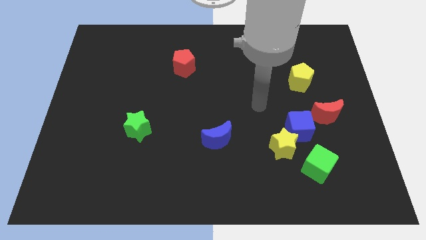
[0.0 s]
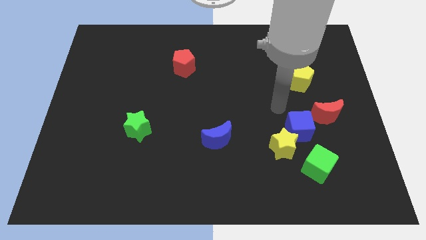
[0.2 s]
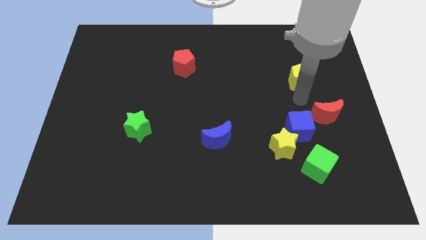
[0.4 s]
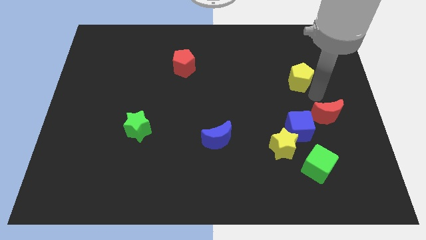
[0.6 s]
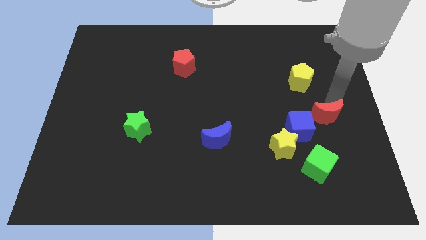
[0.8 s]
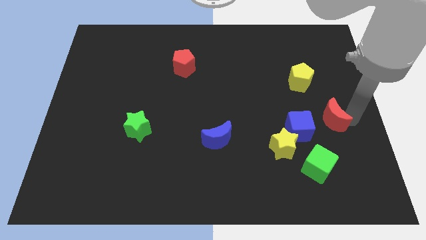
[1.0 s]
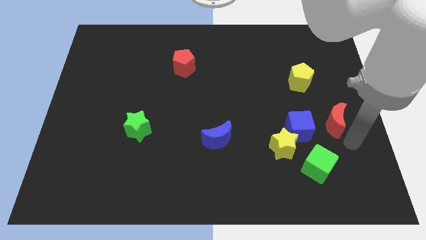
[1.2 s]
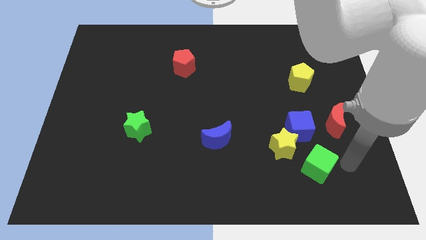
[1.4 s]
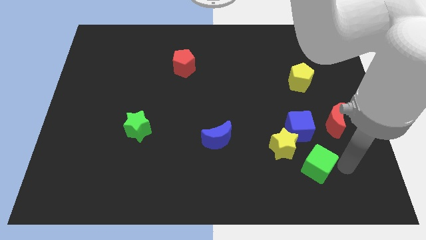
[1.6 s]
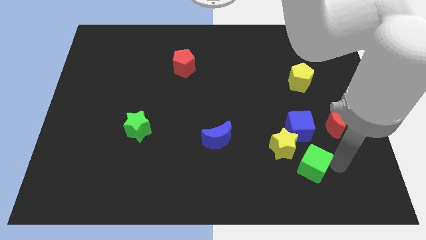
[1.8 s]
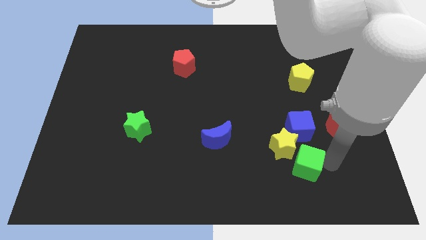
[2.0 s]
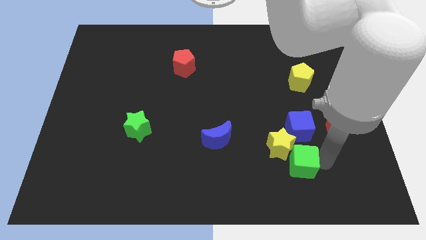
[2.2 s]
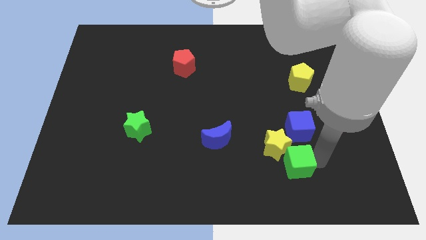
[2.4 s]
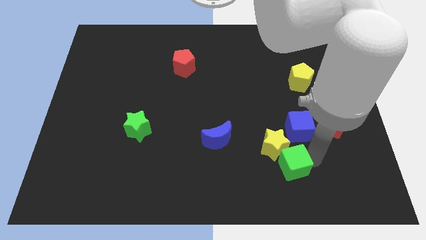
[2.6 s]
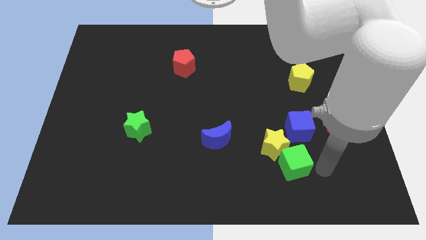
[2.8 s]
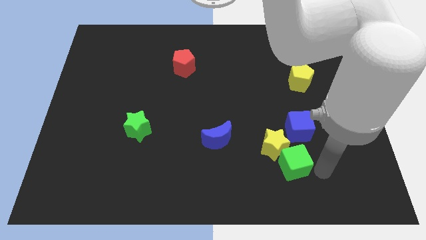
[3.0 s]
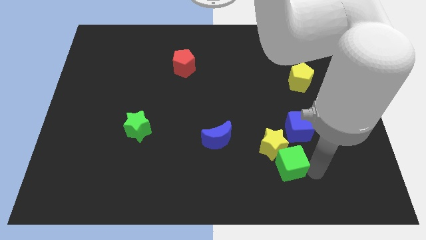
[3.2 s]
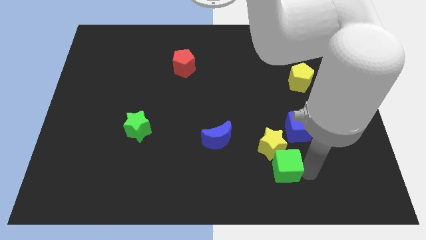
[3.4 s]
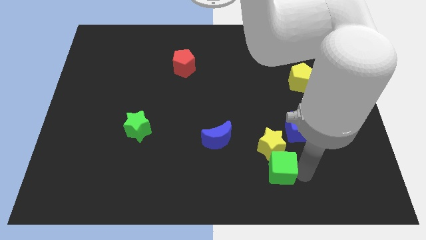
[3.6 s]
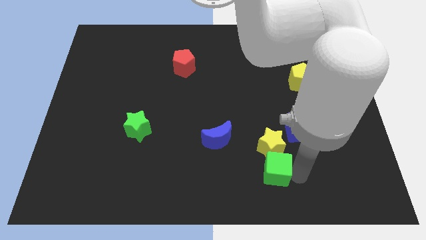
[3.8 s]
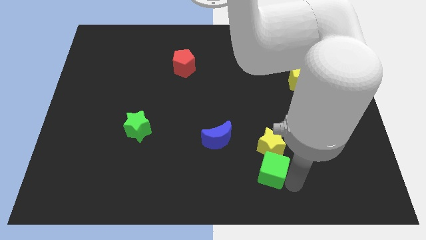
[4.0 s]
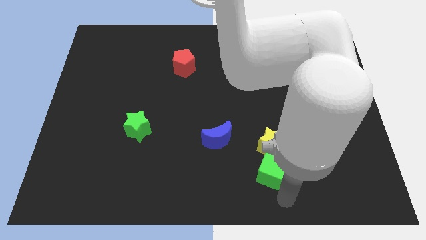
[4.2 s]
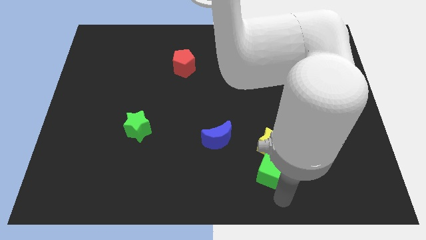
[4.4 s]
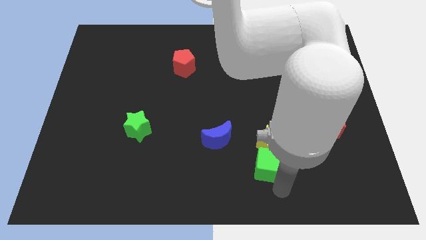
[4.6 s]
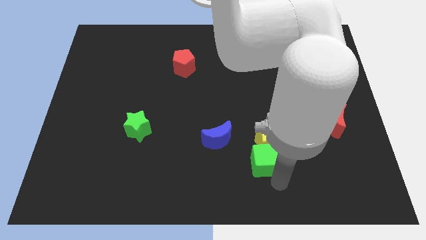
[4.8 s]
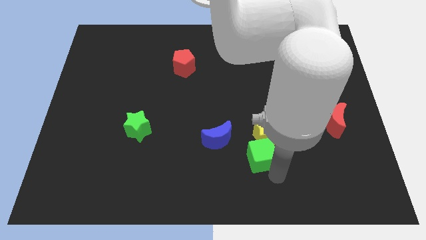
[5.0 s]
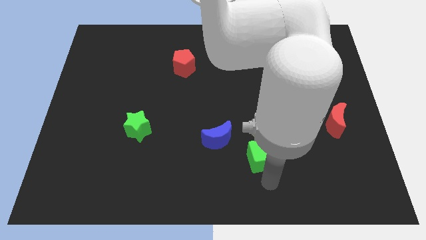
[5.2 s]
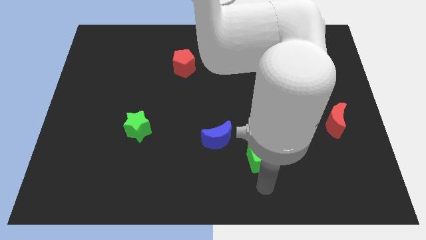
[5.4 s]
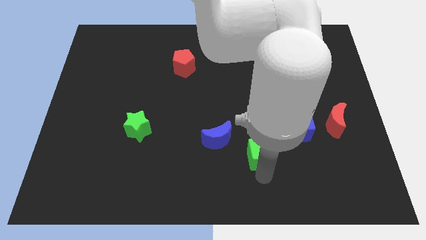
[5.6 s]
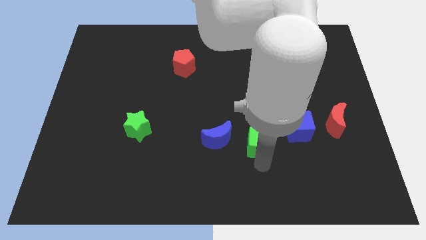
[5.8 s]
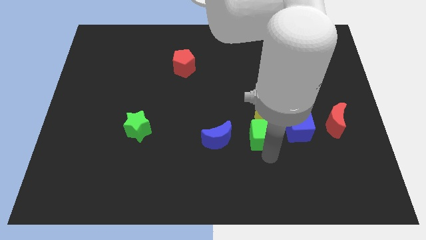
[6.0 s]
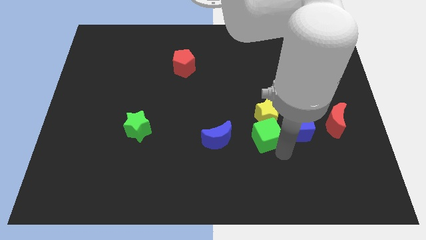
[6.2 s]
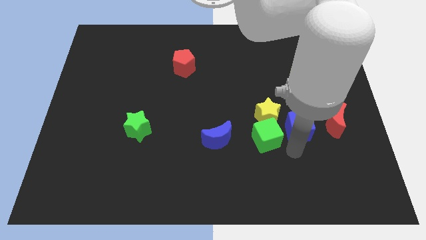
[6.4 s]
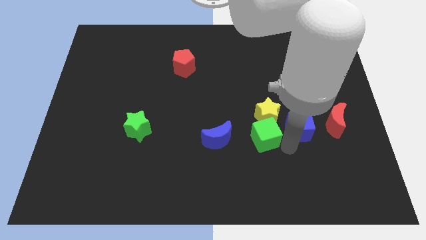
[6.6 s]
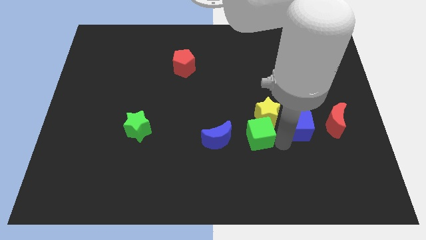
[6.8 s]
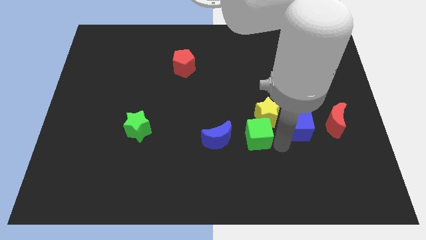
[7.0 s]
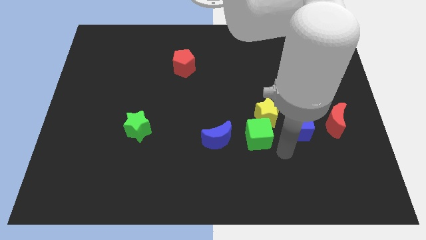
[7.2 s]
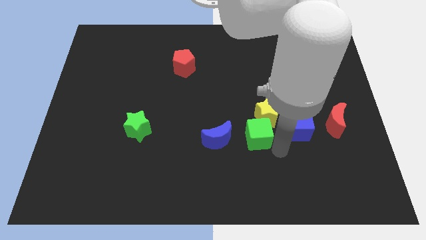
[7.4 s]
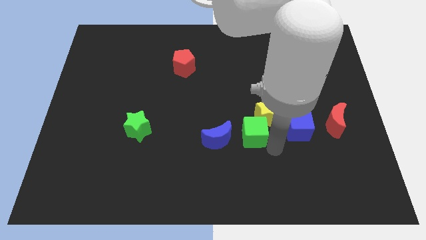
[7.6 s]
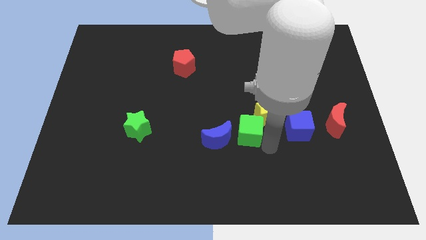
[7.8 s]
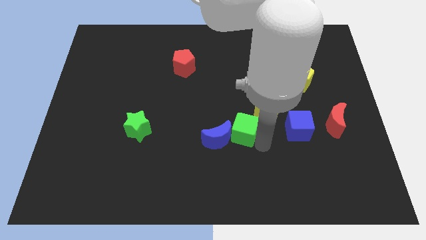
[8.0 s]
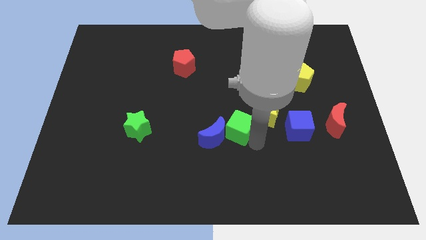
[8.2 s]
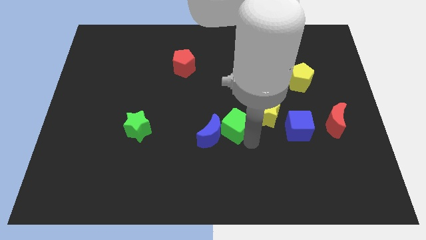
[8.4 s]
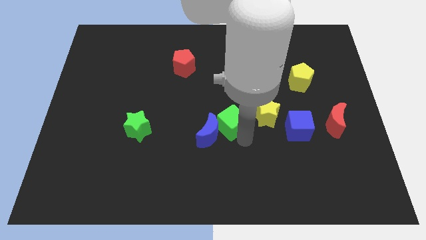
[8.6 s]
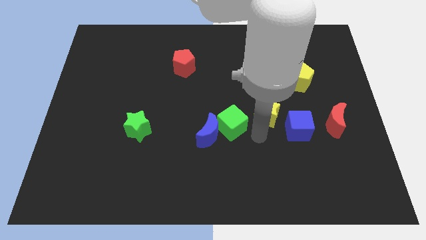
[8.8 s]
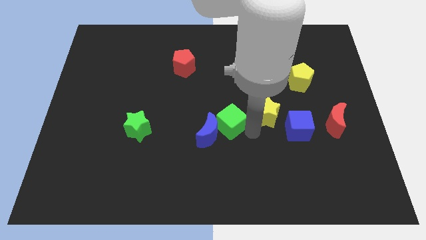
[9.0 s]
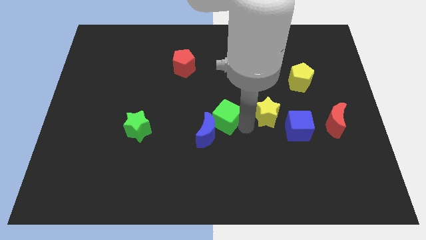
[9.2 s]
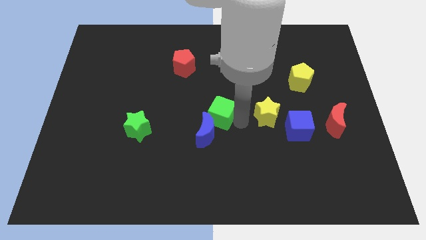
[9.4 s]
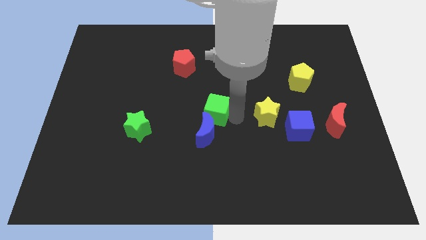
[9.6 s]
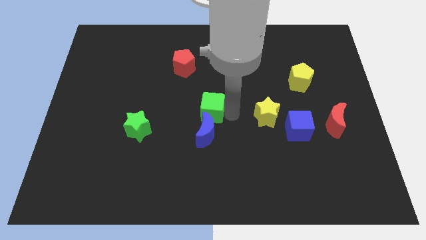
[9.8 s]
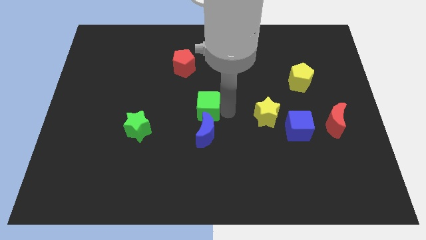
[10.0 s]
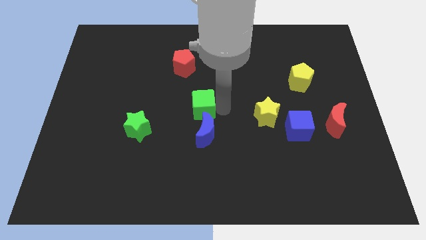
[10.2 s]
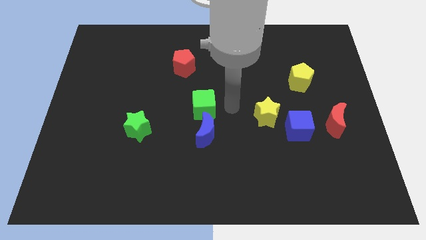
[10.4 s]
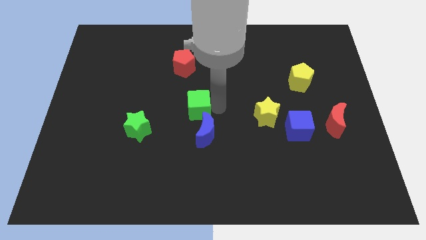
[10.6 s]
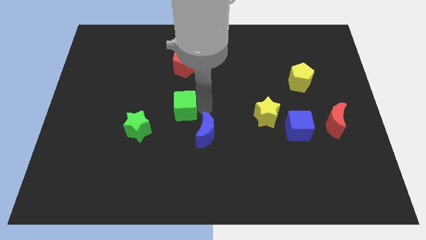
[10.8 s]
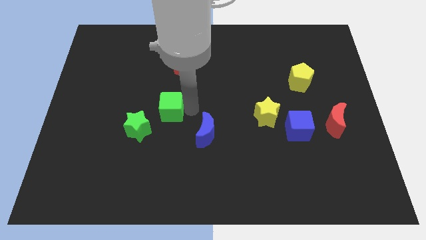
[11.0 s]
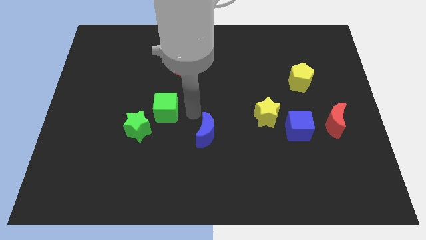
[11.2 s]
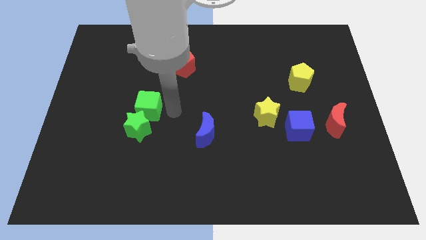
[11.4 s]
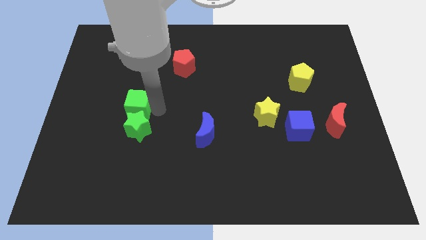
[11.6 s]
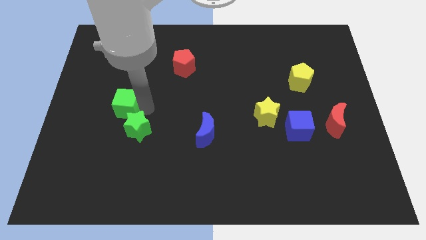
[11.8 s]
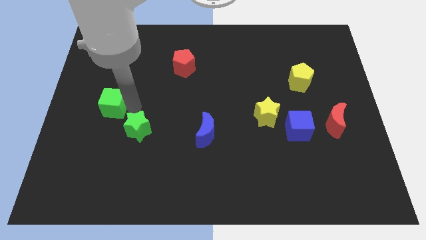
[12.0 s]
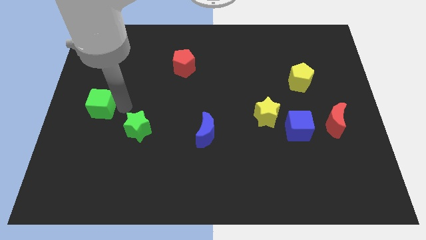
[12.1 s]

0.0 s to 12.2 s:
slide the green cube to the left side of the board
